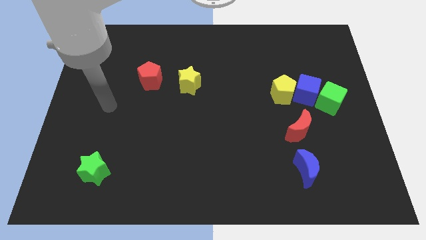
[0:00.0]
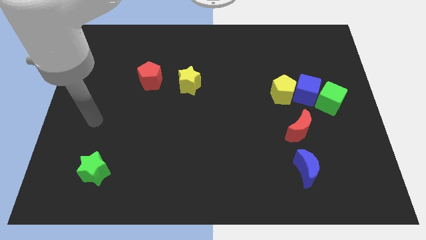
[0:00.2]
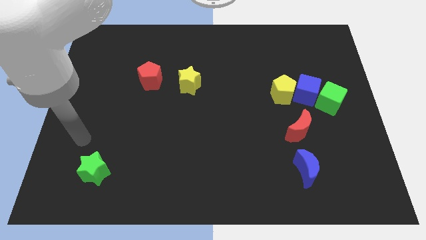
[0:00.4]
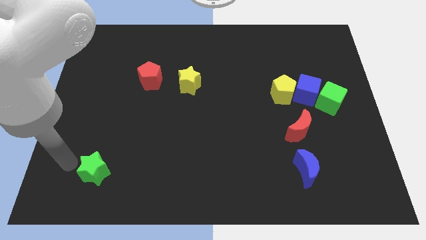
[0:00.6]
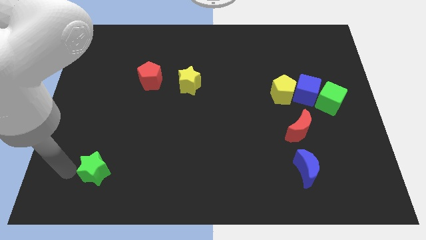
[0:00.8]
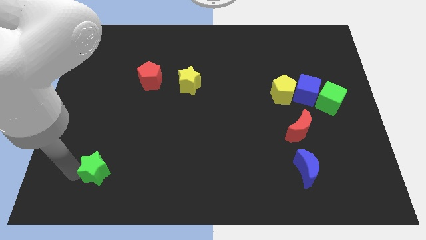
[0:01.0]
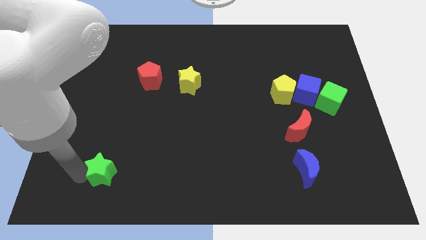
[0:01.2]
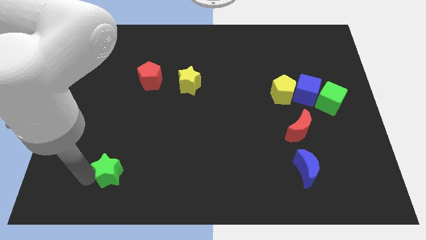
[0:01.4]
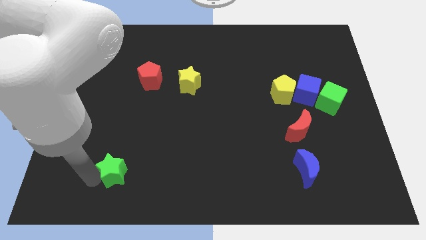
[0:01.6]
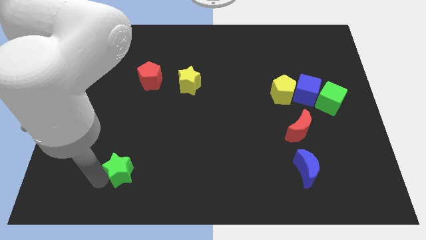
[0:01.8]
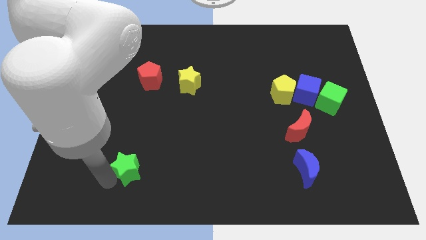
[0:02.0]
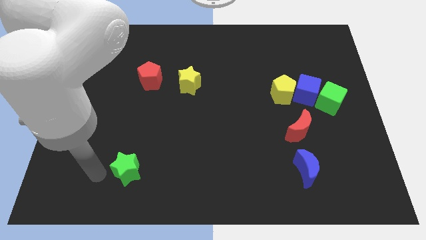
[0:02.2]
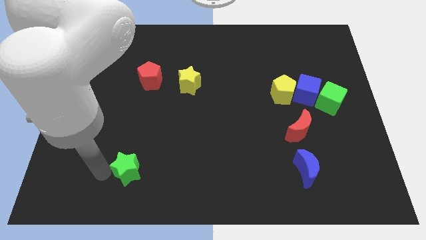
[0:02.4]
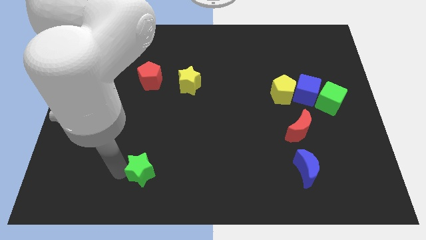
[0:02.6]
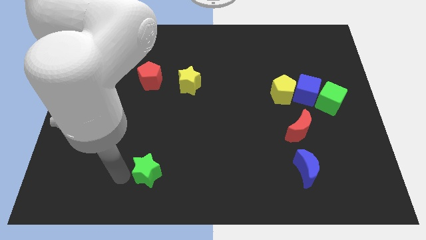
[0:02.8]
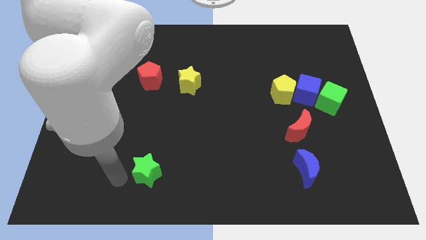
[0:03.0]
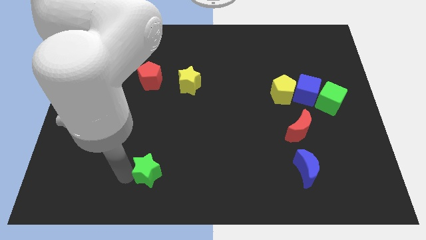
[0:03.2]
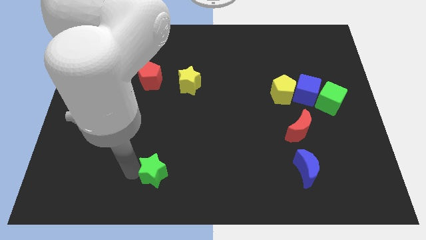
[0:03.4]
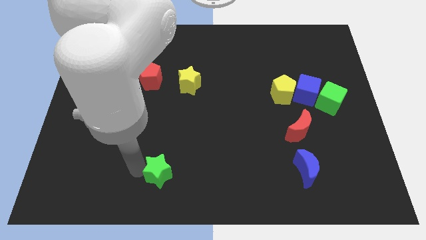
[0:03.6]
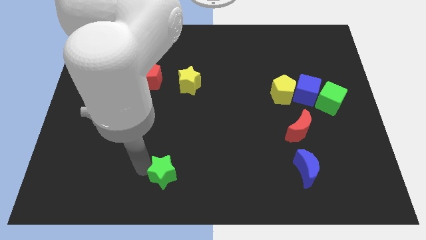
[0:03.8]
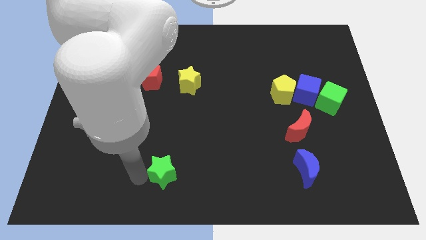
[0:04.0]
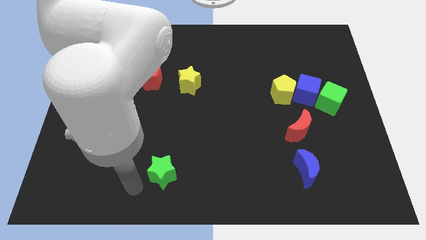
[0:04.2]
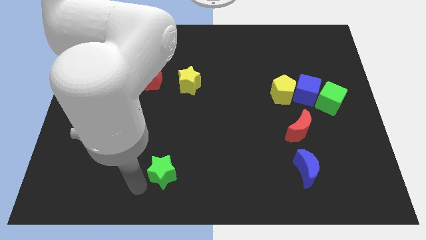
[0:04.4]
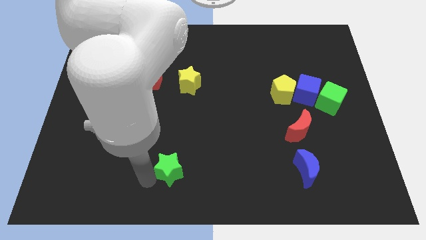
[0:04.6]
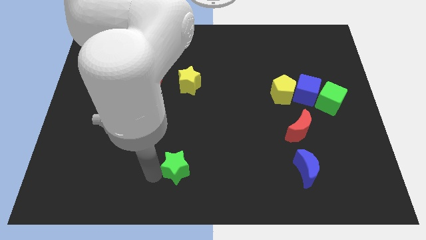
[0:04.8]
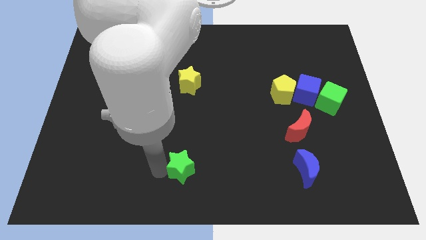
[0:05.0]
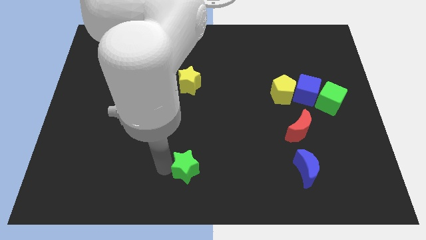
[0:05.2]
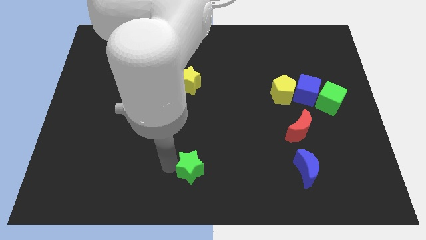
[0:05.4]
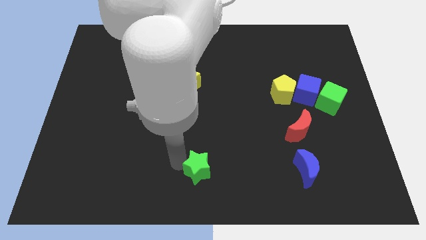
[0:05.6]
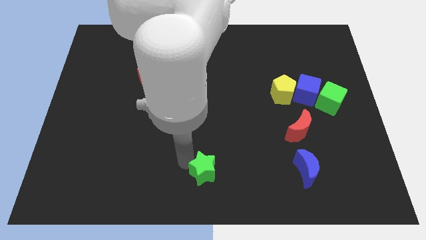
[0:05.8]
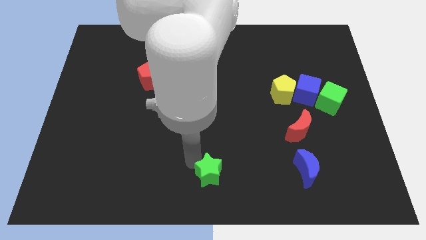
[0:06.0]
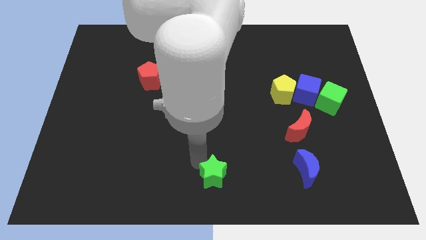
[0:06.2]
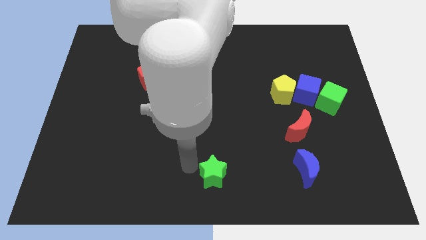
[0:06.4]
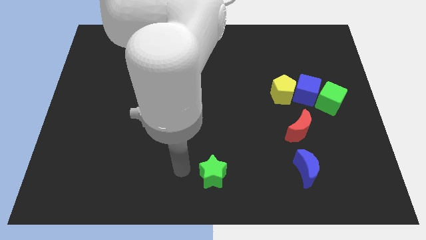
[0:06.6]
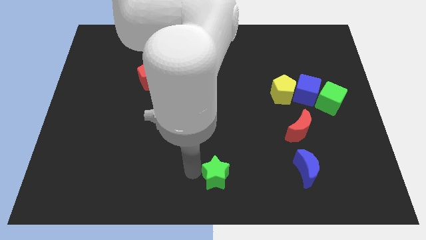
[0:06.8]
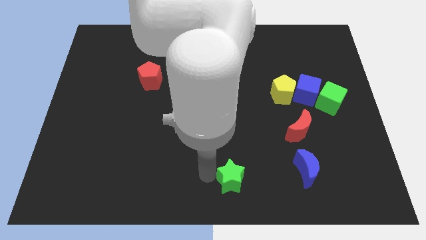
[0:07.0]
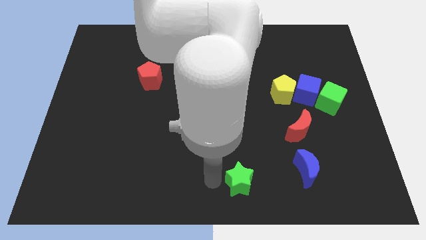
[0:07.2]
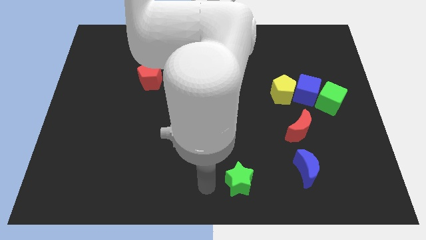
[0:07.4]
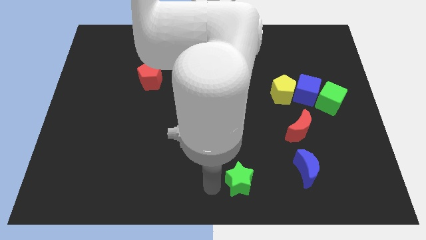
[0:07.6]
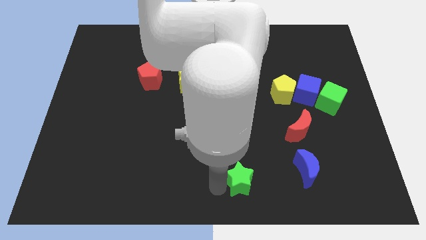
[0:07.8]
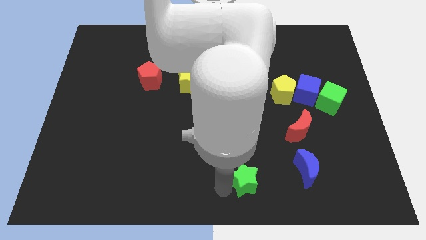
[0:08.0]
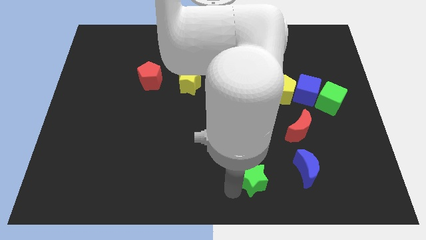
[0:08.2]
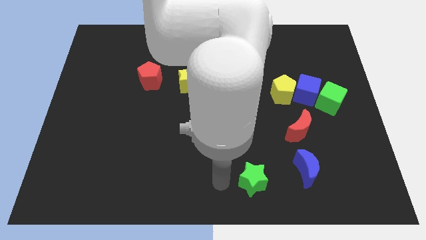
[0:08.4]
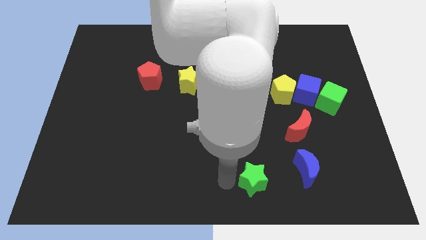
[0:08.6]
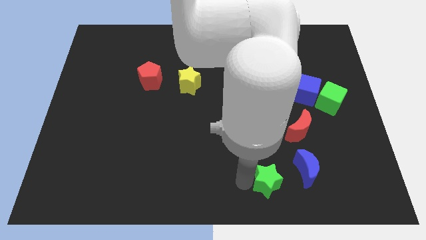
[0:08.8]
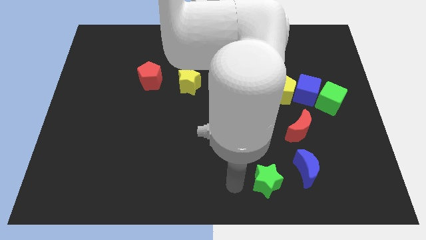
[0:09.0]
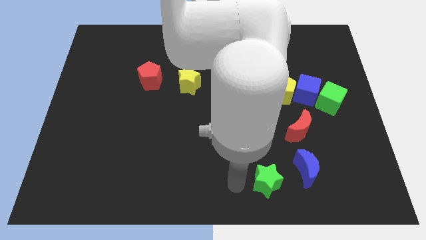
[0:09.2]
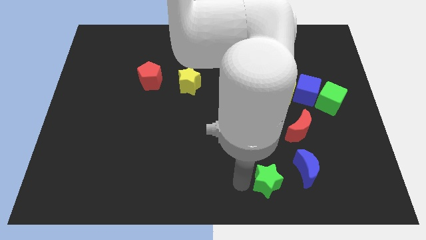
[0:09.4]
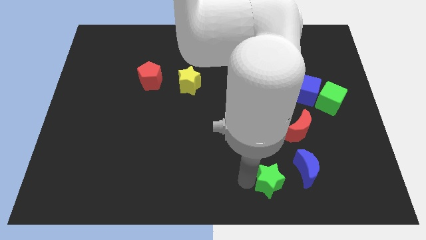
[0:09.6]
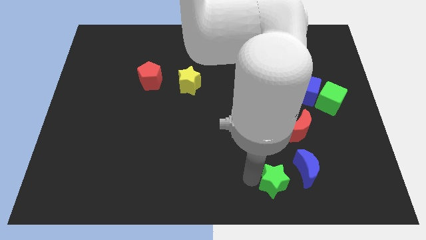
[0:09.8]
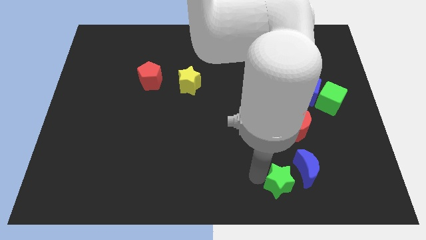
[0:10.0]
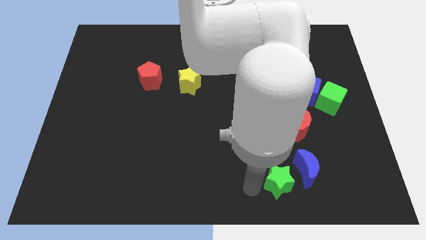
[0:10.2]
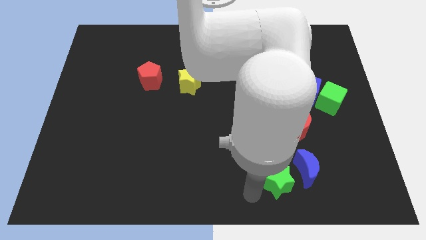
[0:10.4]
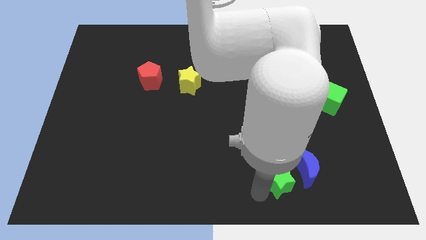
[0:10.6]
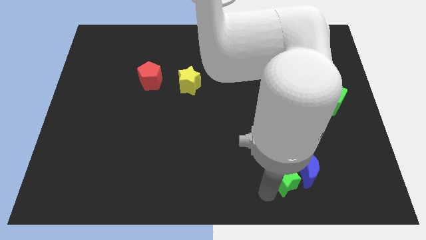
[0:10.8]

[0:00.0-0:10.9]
push the green star towards the blue moon

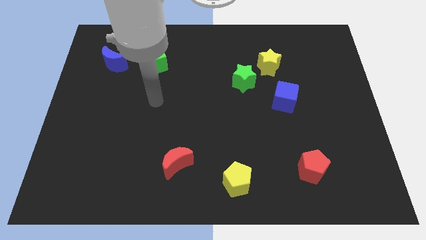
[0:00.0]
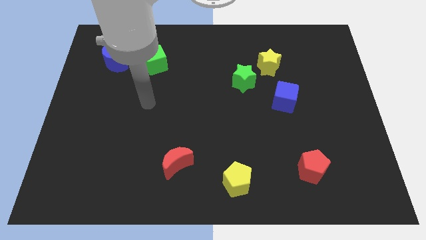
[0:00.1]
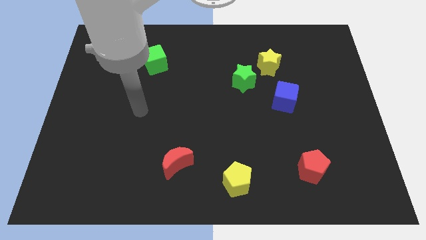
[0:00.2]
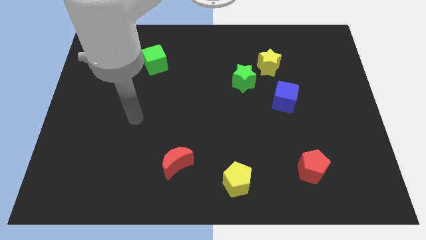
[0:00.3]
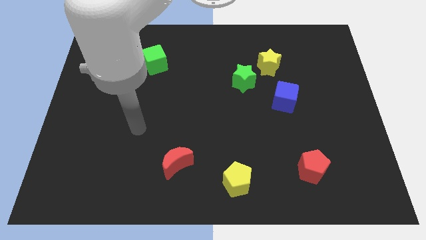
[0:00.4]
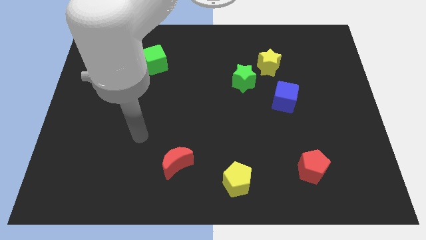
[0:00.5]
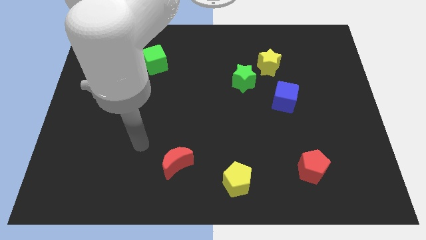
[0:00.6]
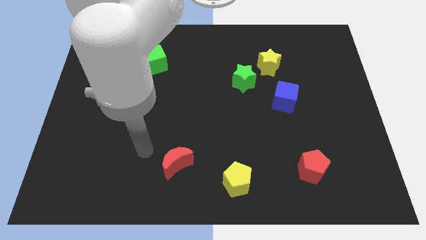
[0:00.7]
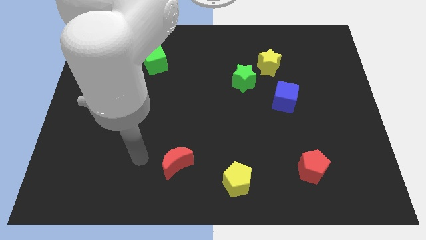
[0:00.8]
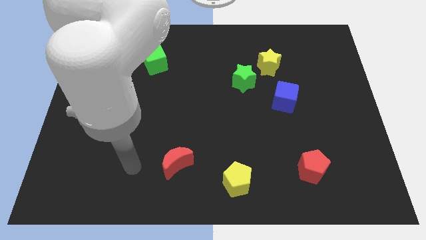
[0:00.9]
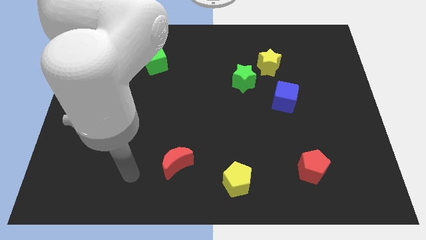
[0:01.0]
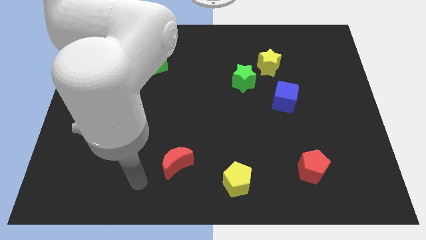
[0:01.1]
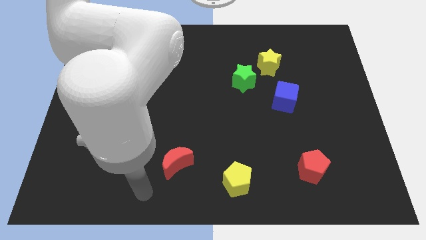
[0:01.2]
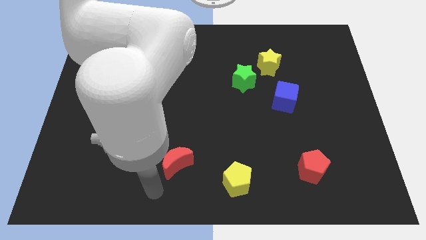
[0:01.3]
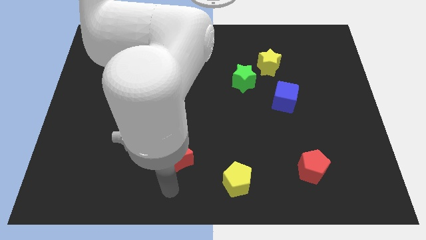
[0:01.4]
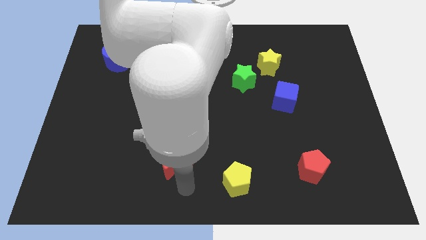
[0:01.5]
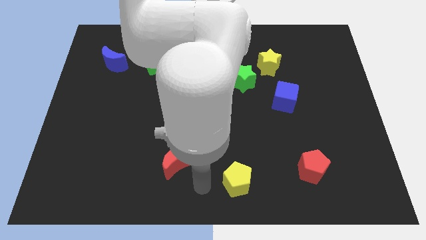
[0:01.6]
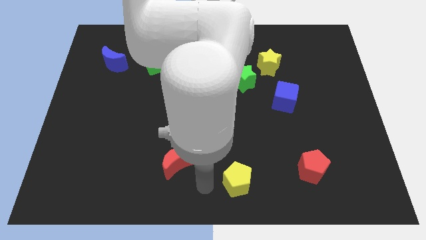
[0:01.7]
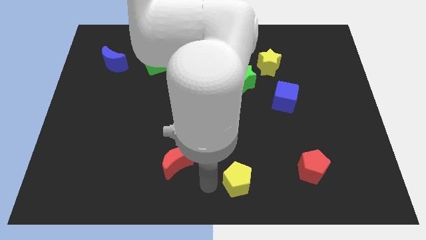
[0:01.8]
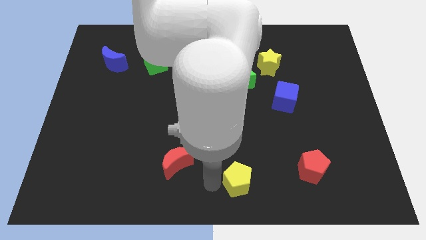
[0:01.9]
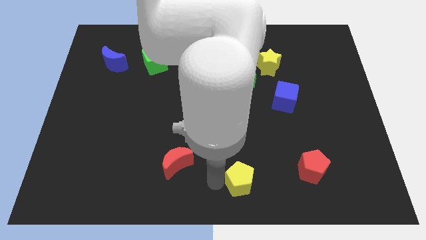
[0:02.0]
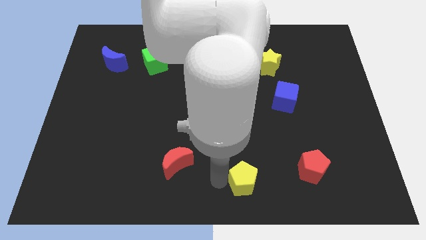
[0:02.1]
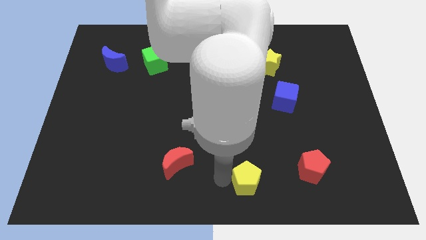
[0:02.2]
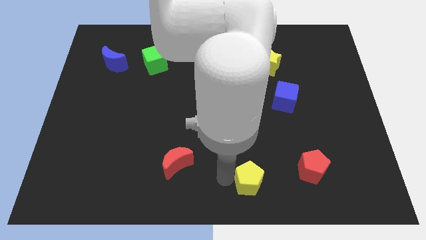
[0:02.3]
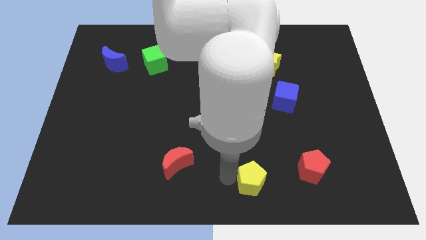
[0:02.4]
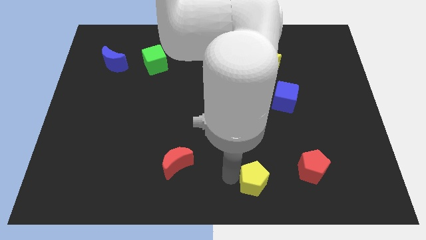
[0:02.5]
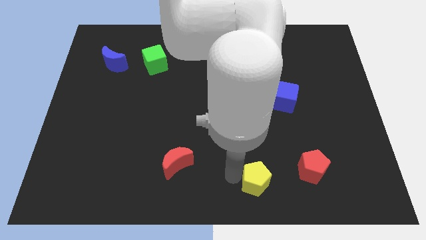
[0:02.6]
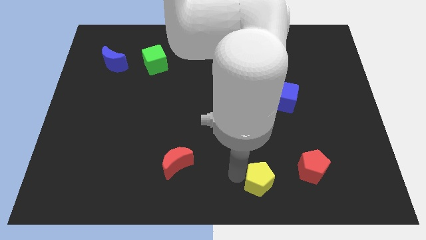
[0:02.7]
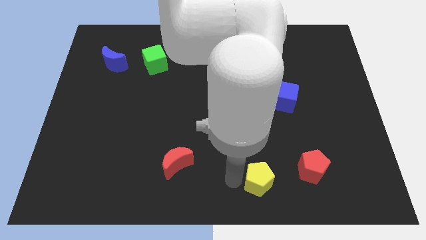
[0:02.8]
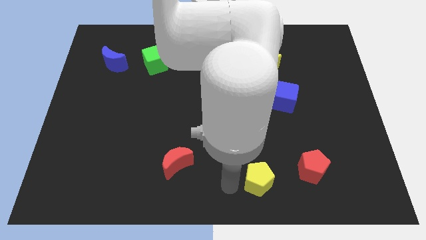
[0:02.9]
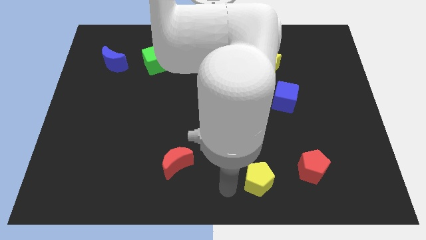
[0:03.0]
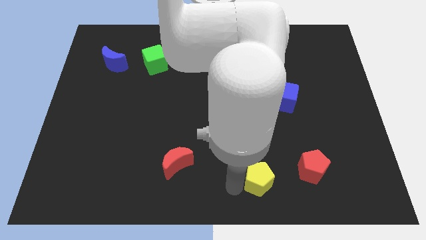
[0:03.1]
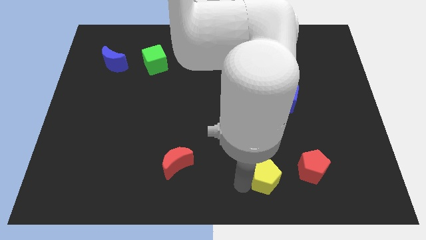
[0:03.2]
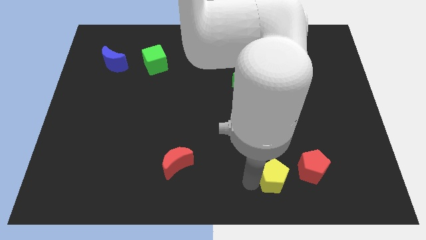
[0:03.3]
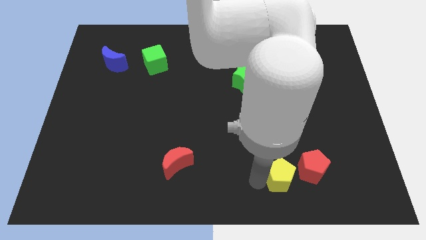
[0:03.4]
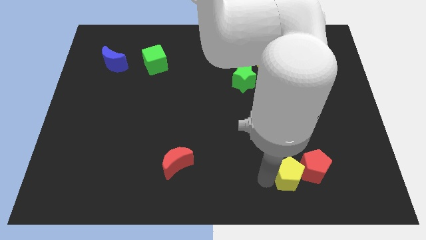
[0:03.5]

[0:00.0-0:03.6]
push the yellow pentagon close to the red pentagon
